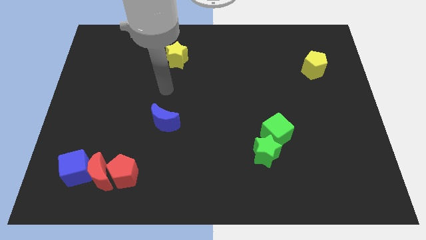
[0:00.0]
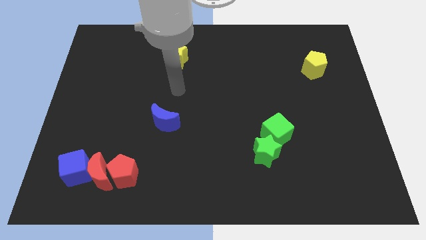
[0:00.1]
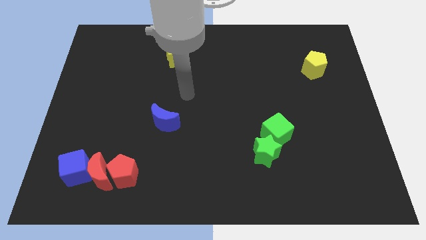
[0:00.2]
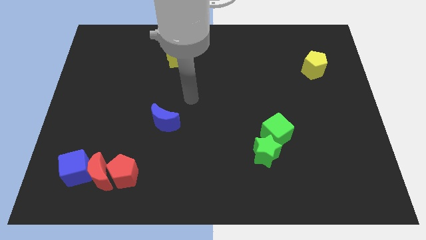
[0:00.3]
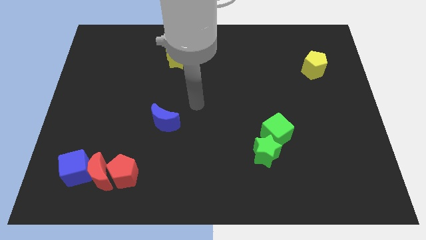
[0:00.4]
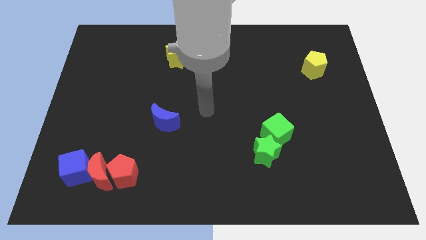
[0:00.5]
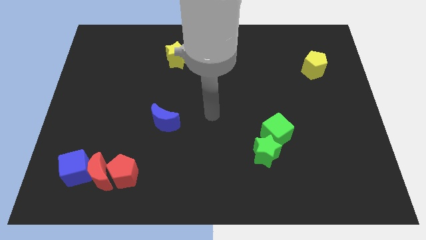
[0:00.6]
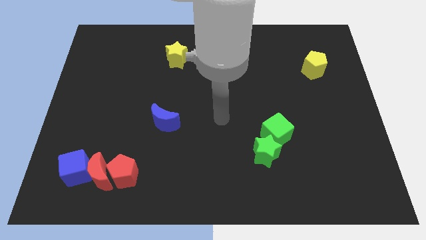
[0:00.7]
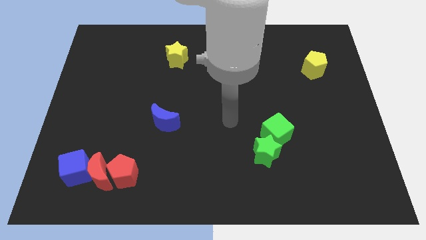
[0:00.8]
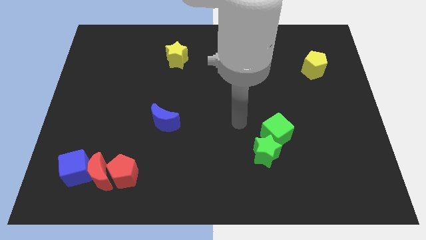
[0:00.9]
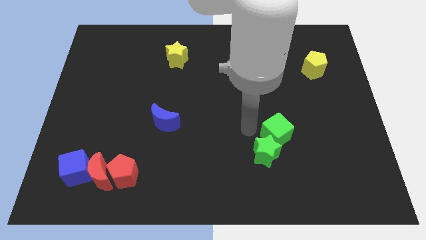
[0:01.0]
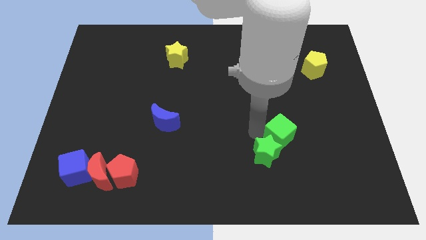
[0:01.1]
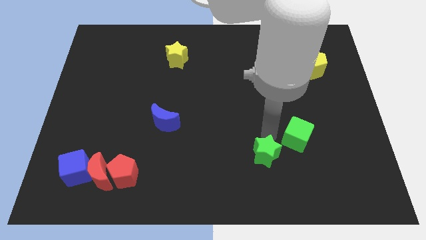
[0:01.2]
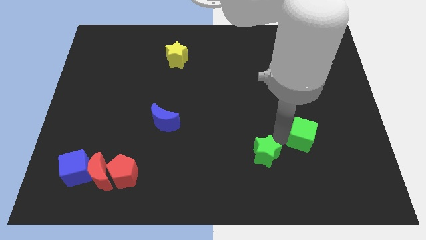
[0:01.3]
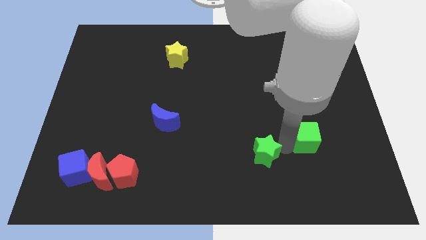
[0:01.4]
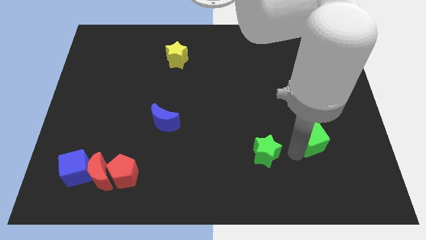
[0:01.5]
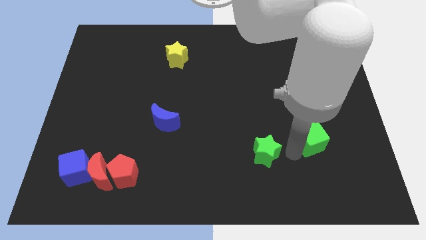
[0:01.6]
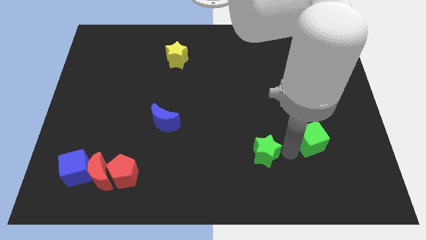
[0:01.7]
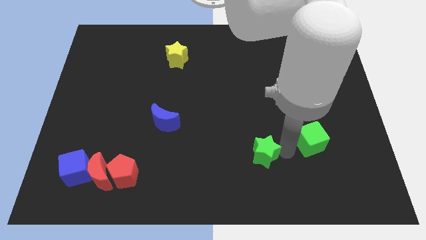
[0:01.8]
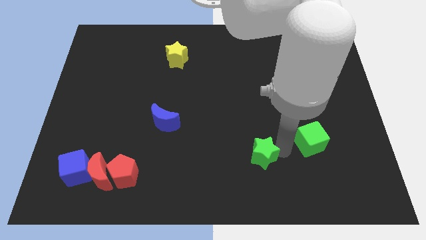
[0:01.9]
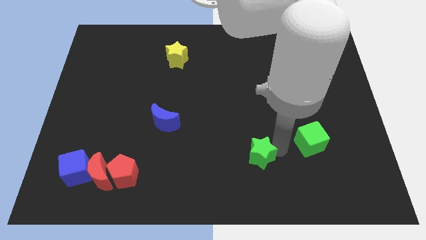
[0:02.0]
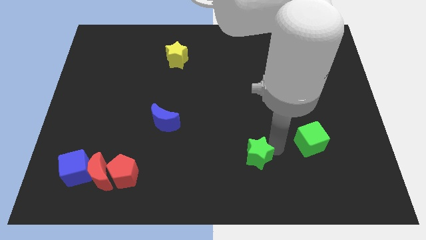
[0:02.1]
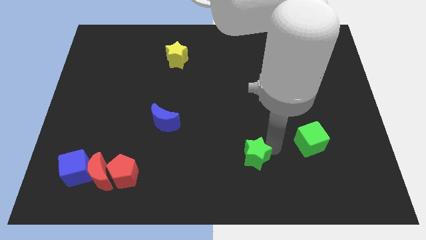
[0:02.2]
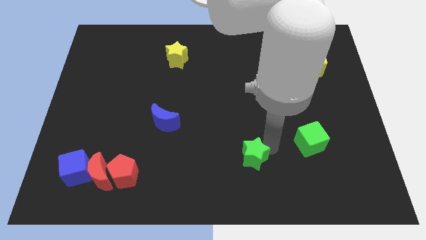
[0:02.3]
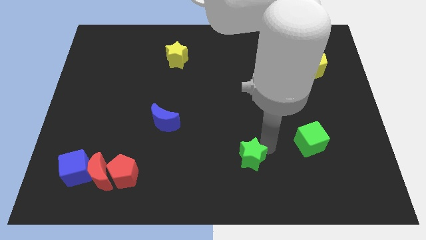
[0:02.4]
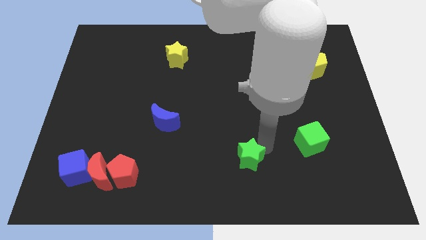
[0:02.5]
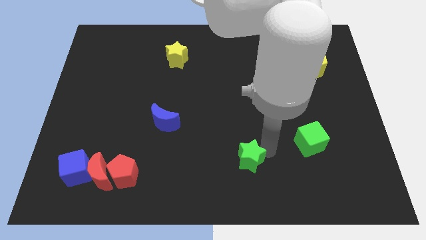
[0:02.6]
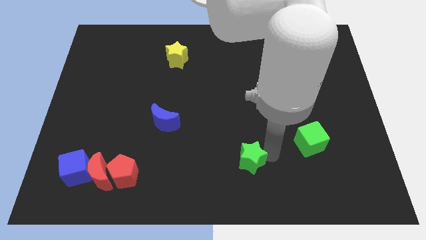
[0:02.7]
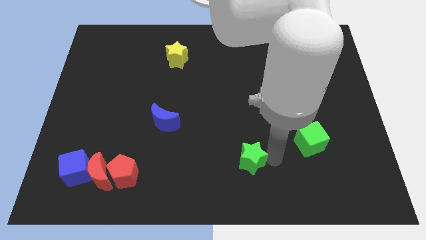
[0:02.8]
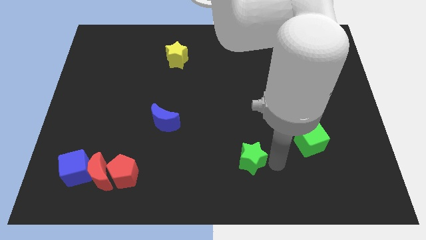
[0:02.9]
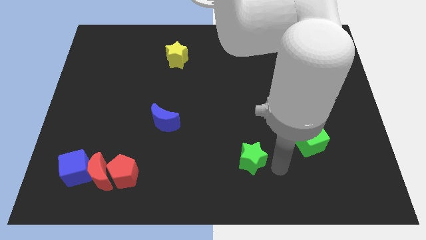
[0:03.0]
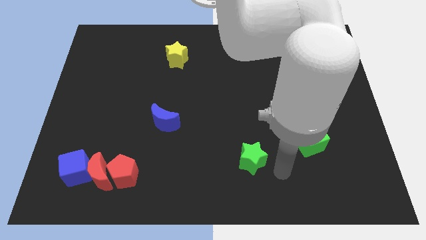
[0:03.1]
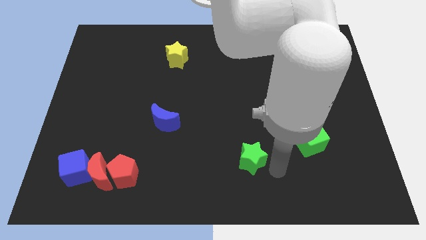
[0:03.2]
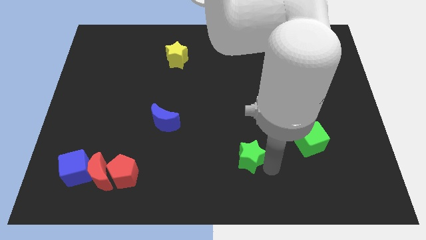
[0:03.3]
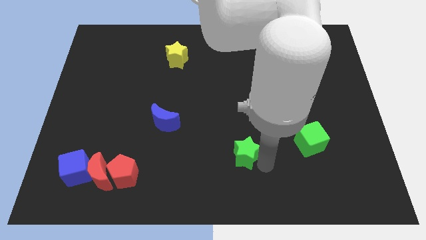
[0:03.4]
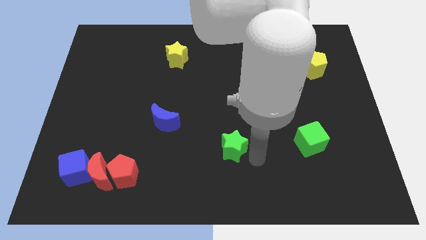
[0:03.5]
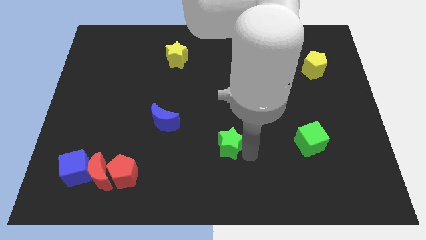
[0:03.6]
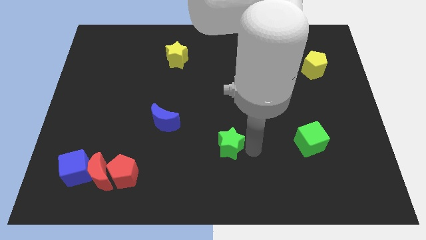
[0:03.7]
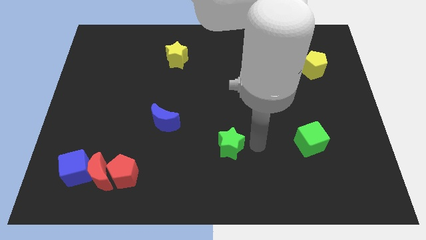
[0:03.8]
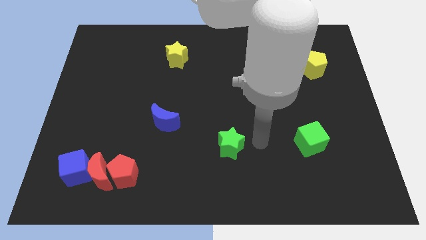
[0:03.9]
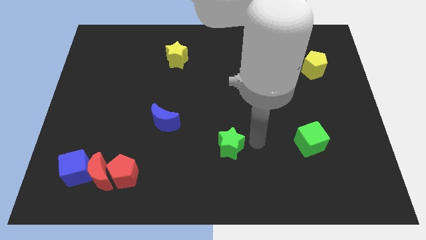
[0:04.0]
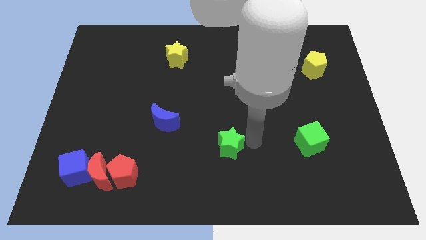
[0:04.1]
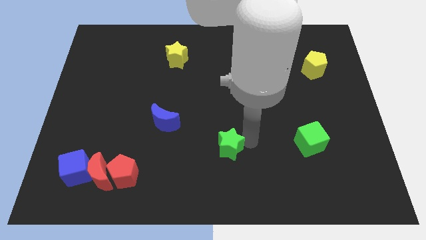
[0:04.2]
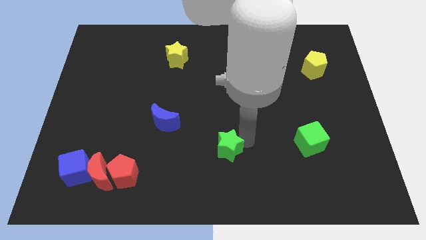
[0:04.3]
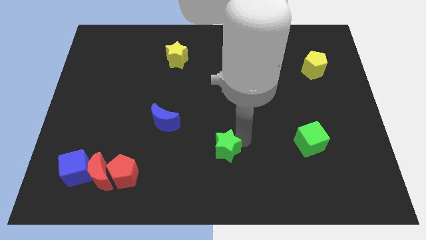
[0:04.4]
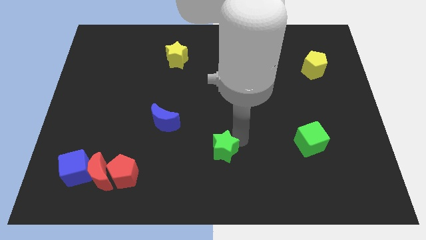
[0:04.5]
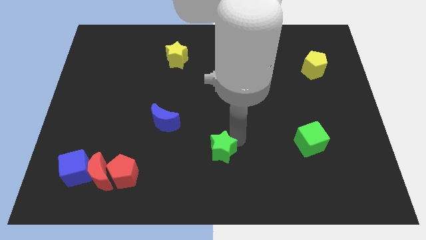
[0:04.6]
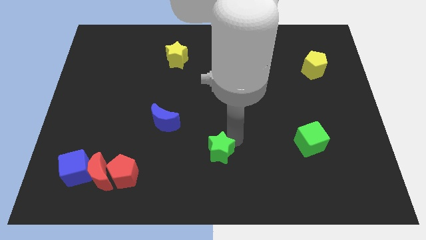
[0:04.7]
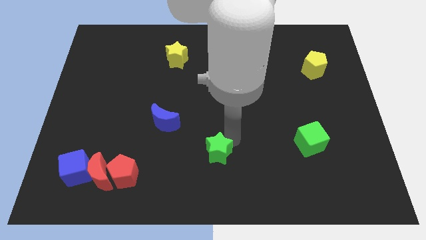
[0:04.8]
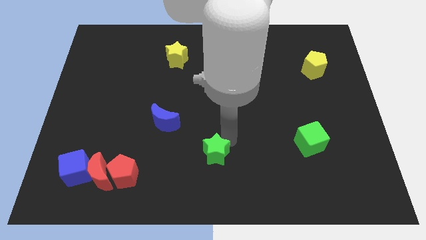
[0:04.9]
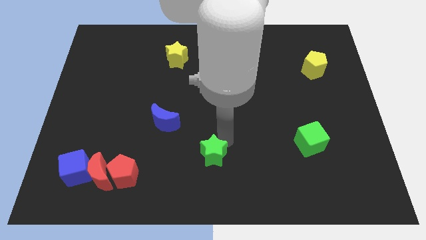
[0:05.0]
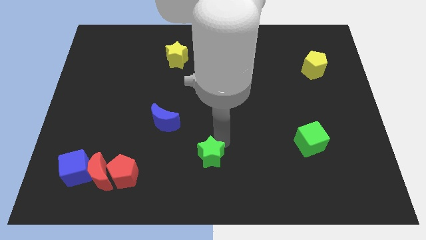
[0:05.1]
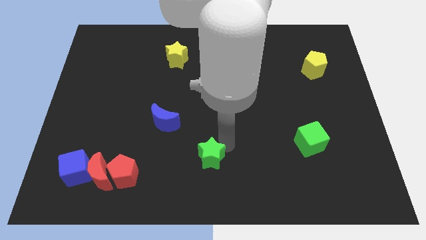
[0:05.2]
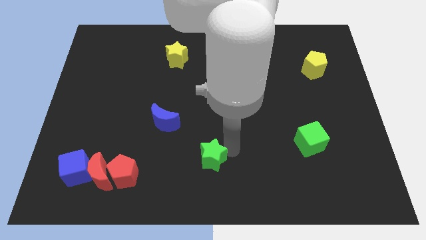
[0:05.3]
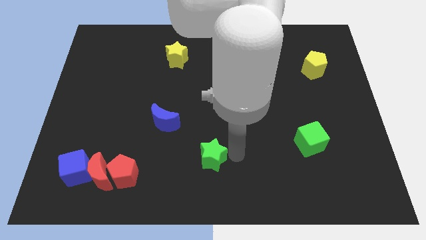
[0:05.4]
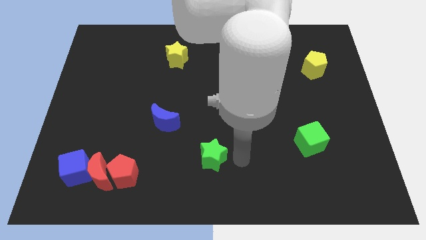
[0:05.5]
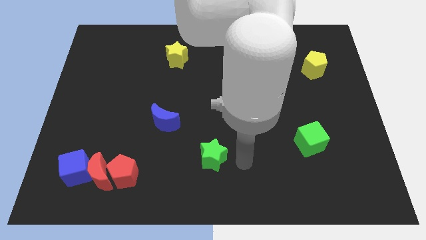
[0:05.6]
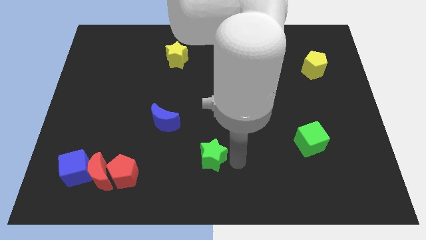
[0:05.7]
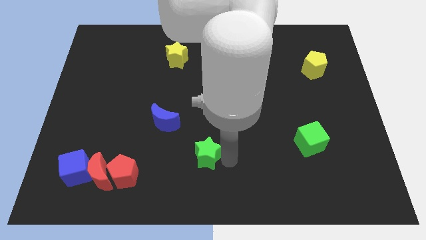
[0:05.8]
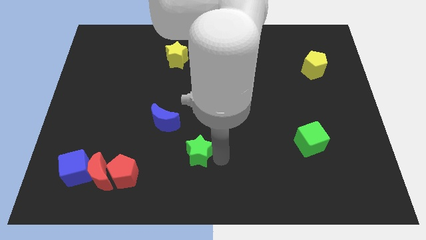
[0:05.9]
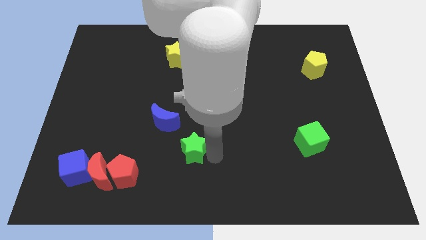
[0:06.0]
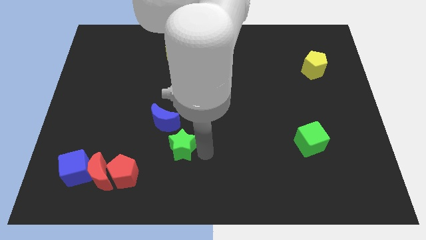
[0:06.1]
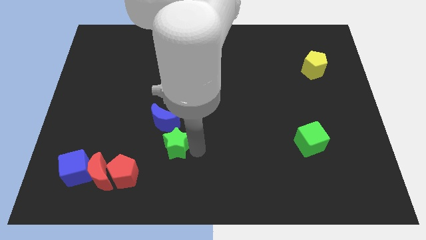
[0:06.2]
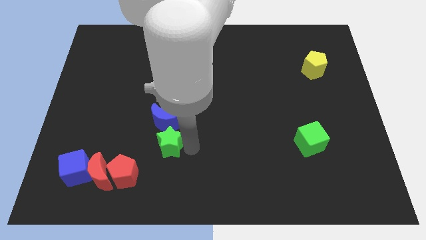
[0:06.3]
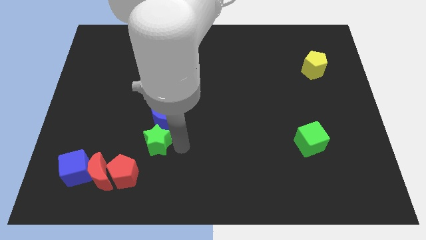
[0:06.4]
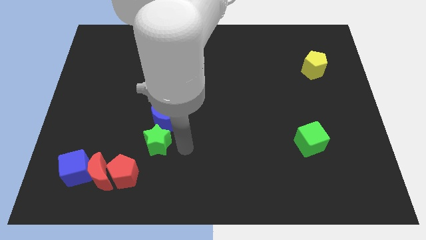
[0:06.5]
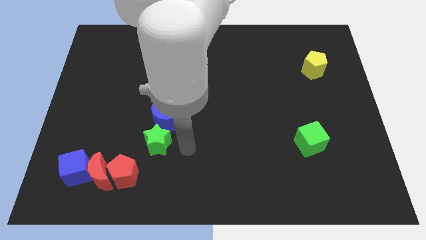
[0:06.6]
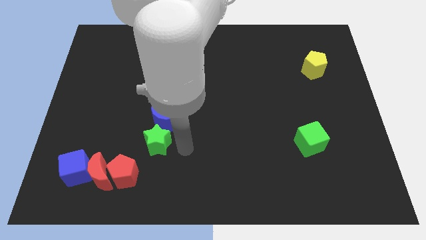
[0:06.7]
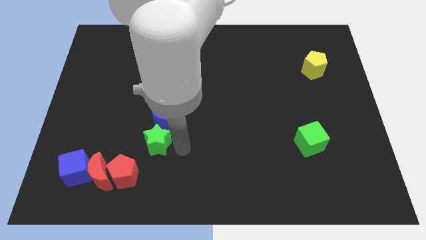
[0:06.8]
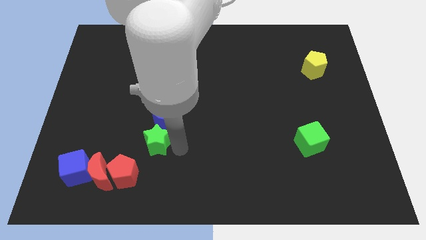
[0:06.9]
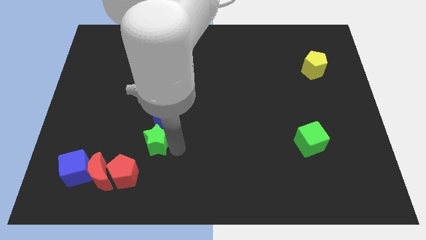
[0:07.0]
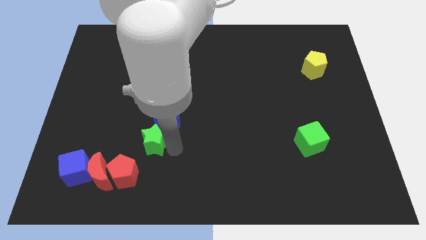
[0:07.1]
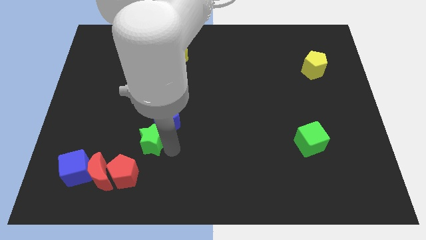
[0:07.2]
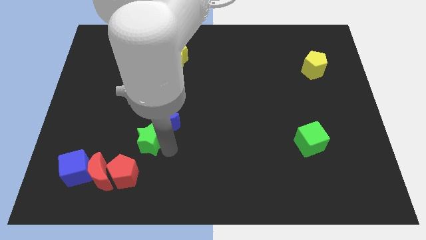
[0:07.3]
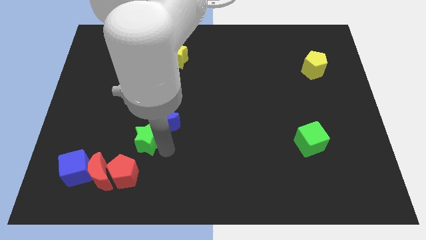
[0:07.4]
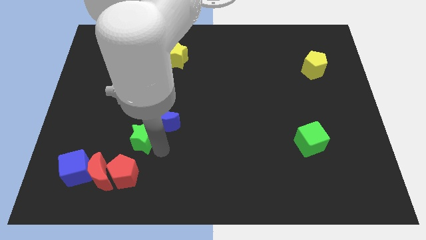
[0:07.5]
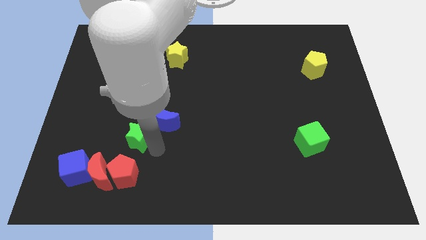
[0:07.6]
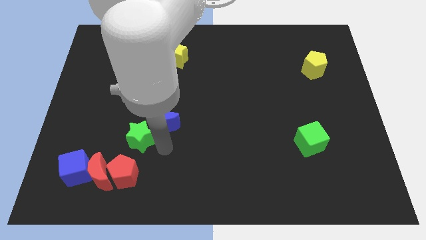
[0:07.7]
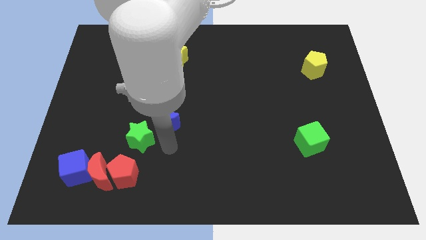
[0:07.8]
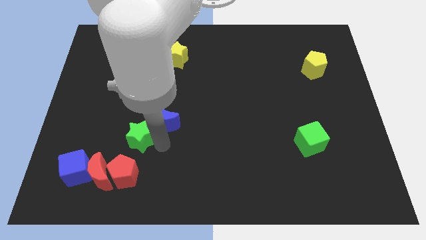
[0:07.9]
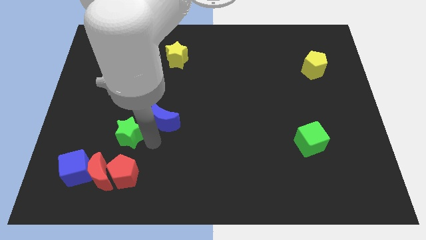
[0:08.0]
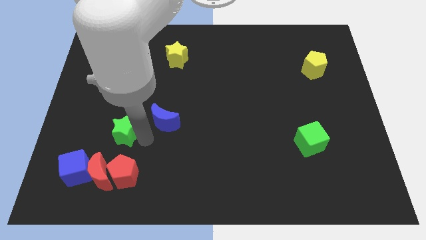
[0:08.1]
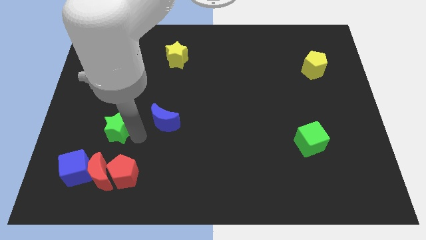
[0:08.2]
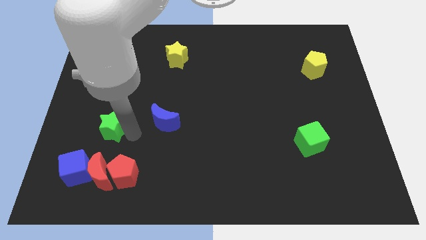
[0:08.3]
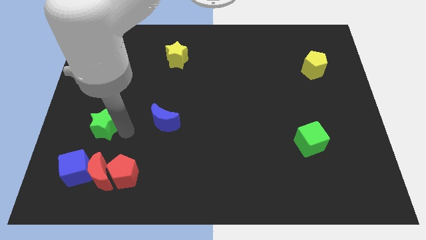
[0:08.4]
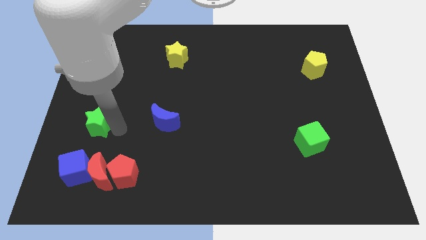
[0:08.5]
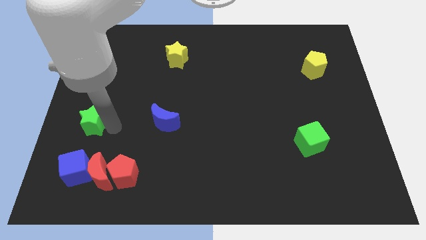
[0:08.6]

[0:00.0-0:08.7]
put the green star to the left side
